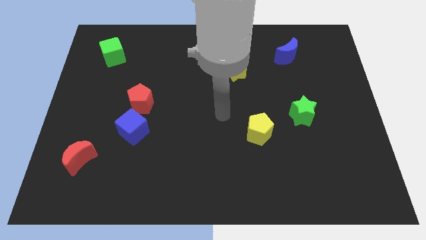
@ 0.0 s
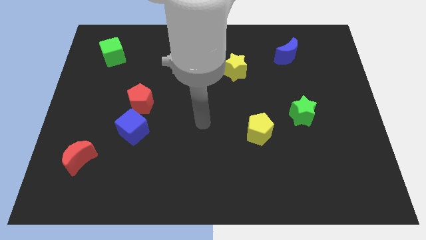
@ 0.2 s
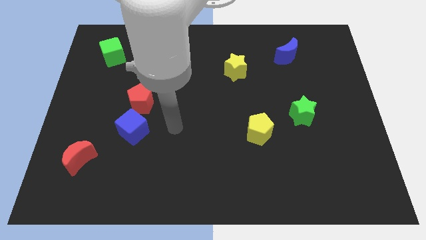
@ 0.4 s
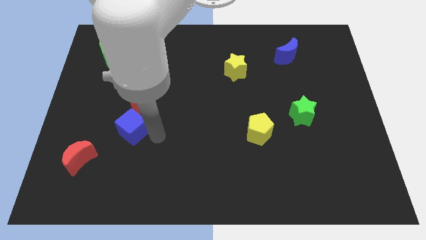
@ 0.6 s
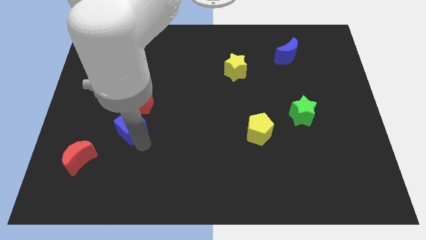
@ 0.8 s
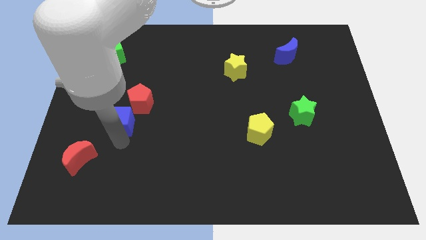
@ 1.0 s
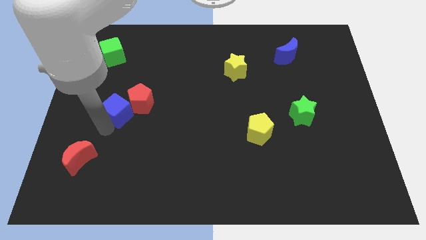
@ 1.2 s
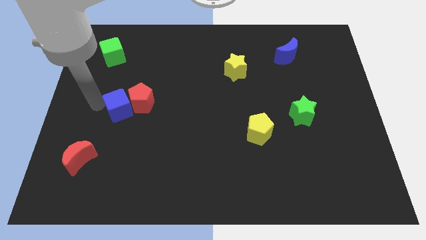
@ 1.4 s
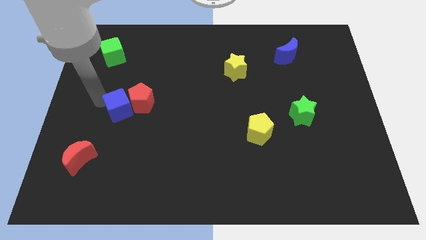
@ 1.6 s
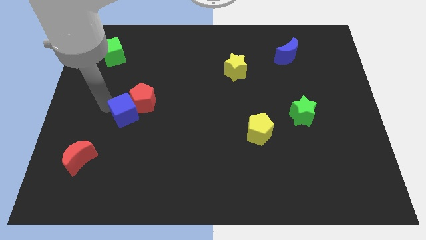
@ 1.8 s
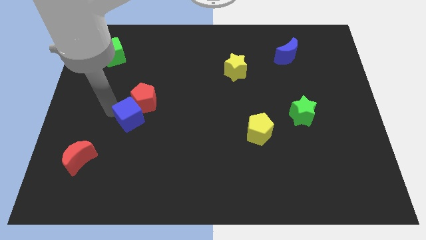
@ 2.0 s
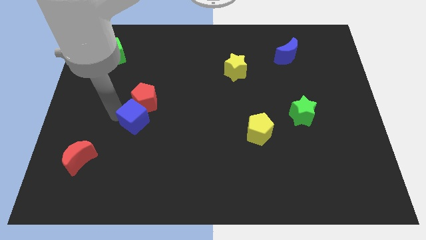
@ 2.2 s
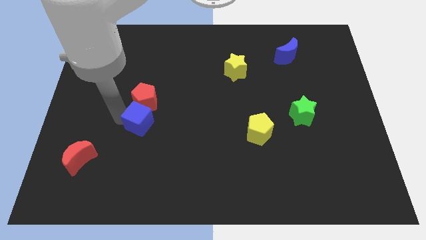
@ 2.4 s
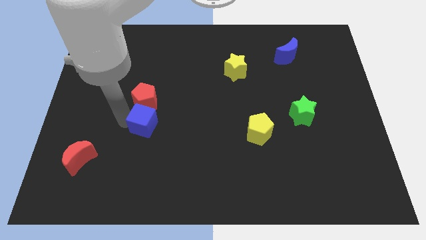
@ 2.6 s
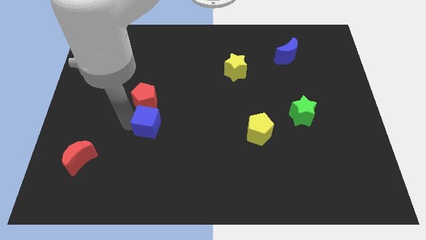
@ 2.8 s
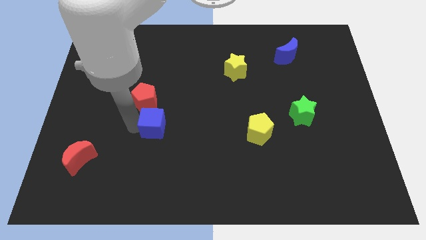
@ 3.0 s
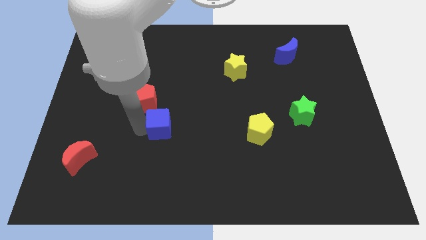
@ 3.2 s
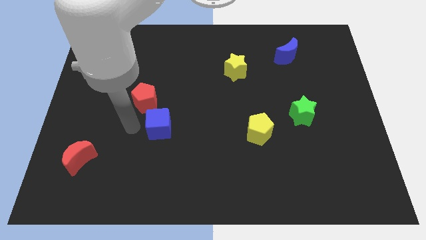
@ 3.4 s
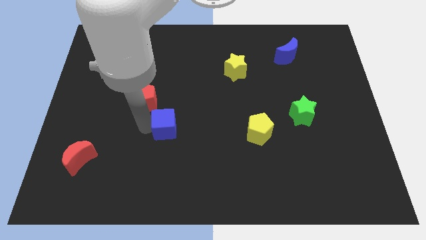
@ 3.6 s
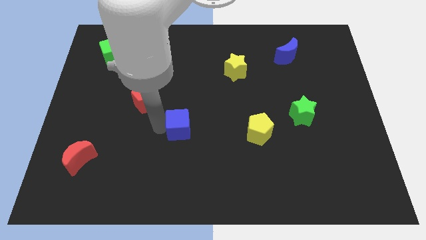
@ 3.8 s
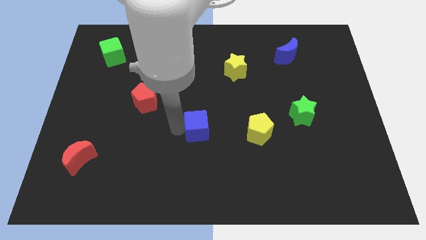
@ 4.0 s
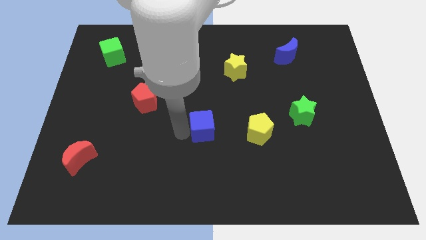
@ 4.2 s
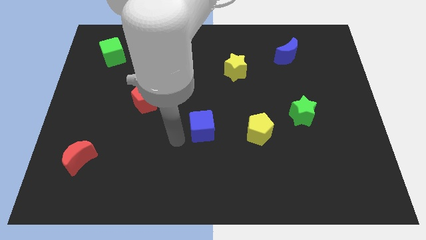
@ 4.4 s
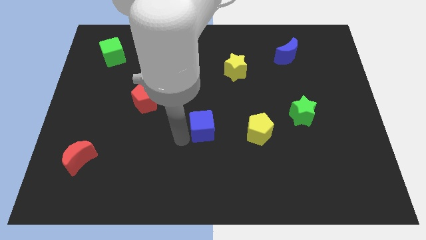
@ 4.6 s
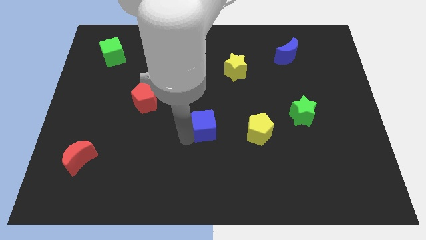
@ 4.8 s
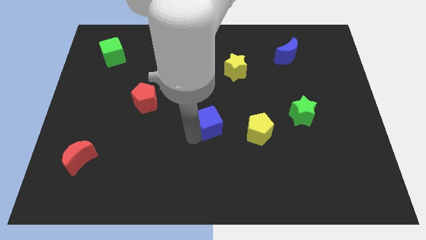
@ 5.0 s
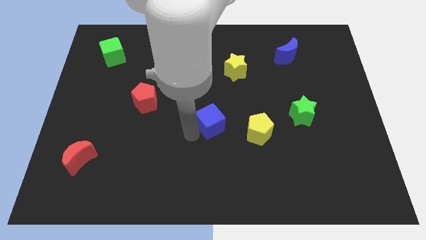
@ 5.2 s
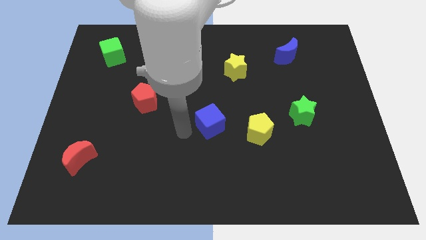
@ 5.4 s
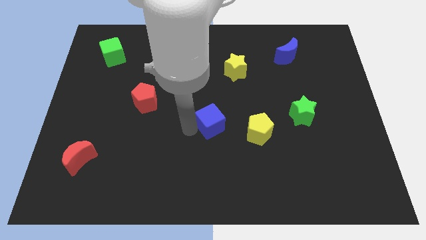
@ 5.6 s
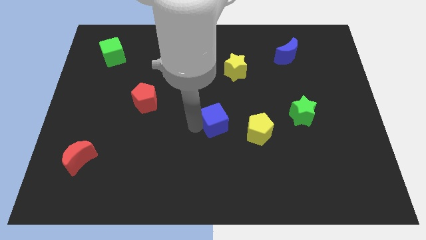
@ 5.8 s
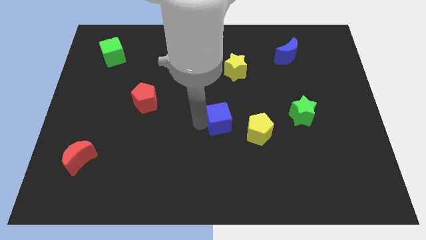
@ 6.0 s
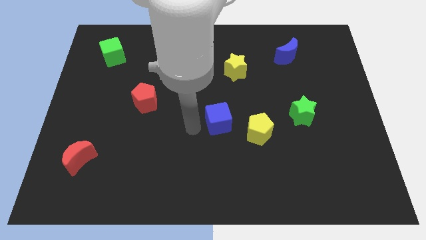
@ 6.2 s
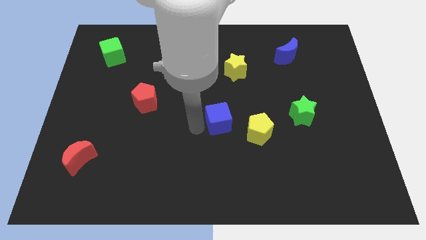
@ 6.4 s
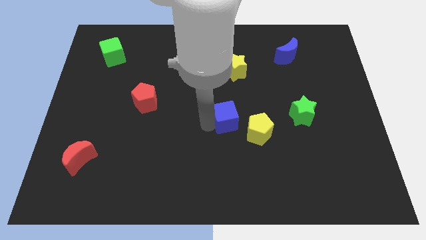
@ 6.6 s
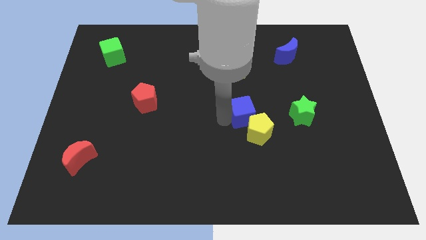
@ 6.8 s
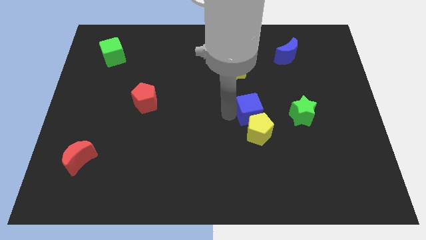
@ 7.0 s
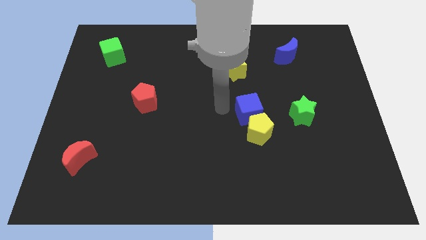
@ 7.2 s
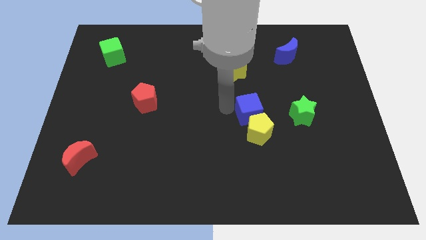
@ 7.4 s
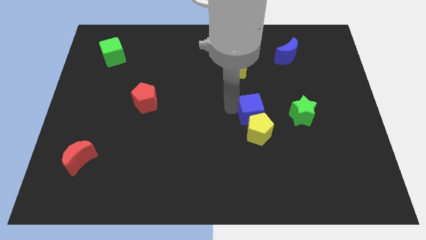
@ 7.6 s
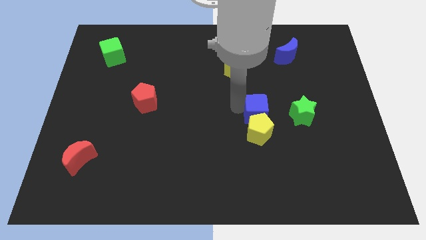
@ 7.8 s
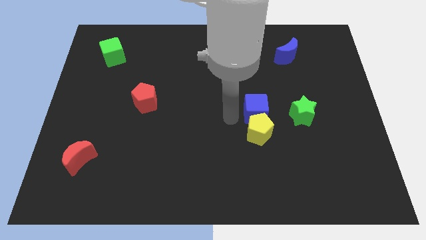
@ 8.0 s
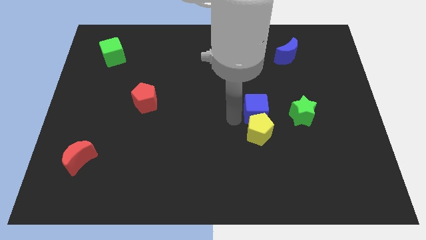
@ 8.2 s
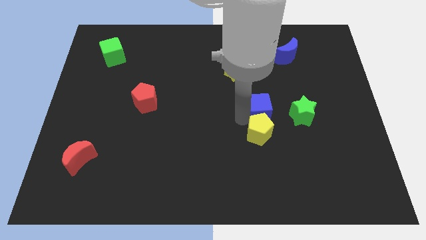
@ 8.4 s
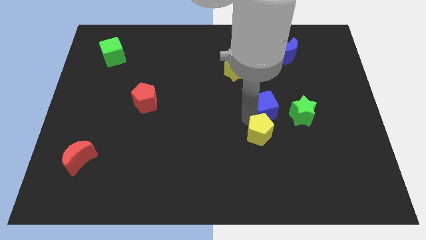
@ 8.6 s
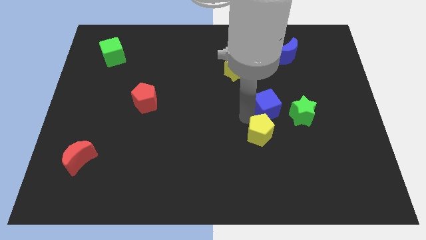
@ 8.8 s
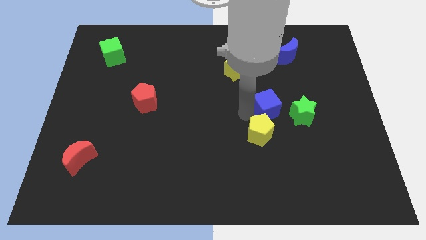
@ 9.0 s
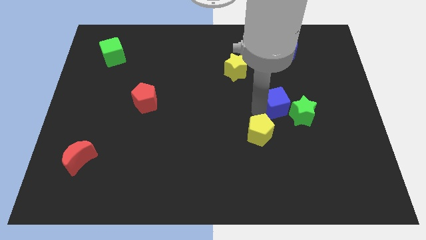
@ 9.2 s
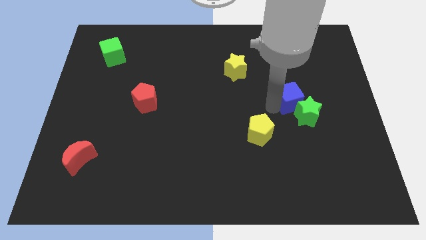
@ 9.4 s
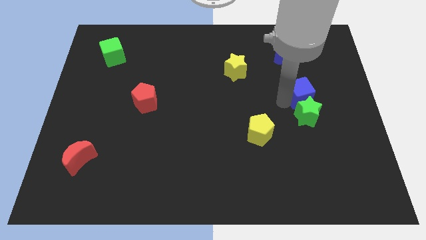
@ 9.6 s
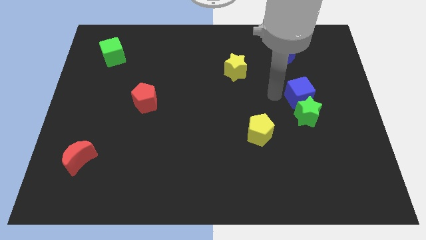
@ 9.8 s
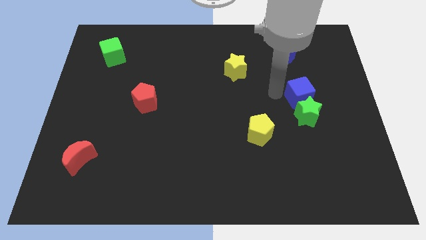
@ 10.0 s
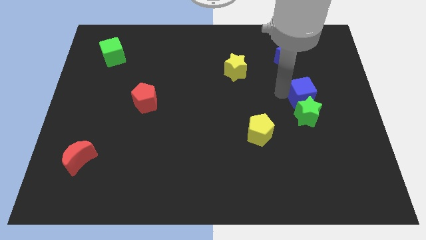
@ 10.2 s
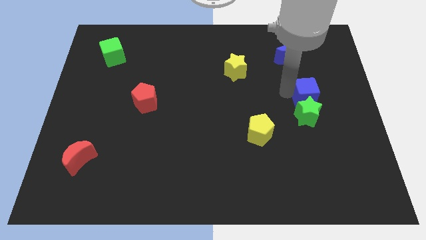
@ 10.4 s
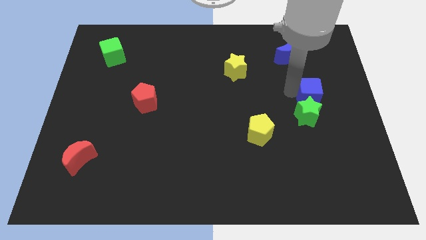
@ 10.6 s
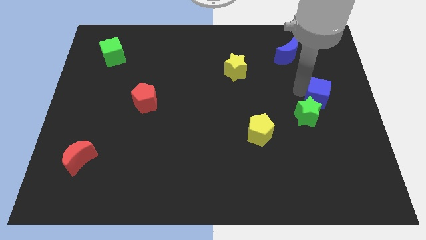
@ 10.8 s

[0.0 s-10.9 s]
push the blue cube to the center right
